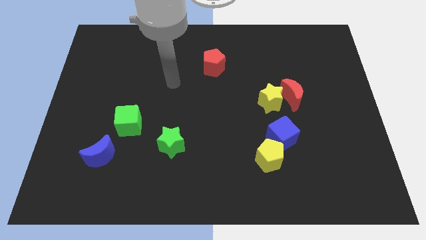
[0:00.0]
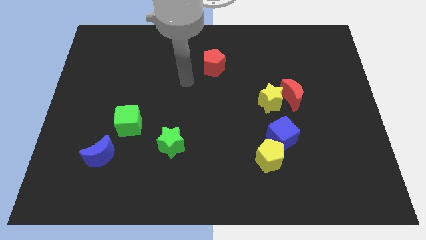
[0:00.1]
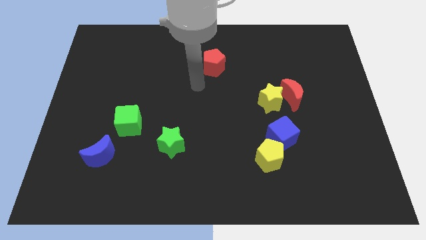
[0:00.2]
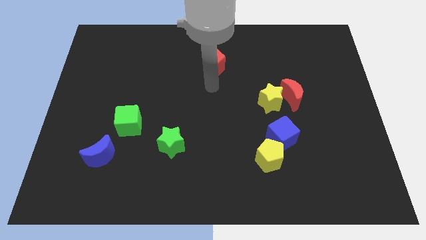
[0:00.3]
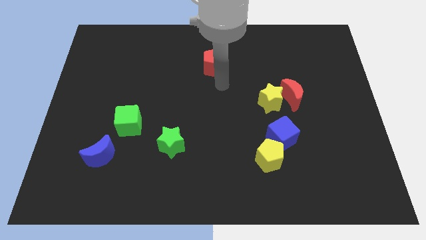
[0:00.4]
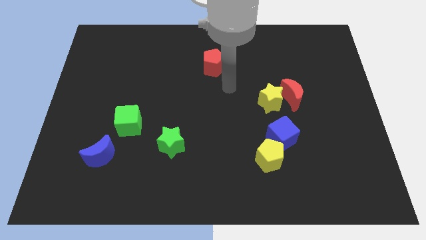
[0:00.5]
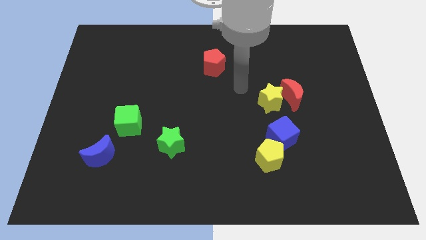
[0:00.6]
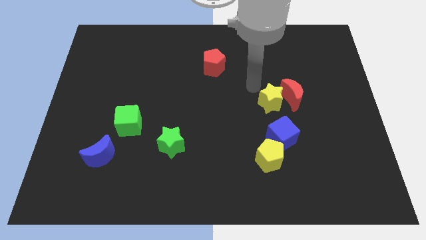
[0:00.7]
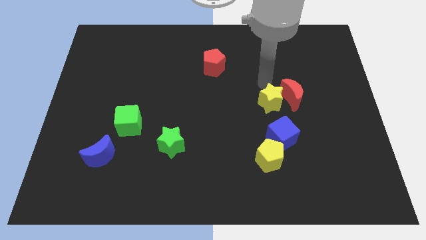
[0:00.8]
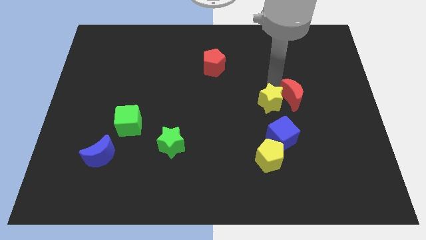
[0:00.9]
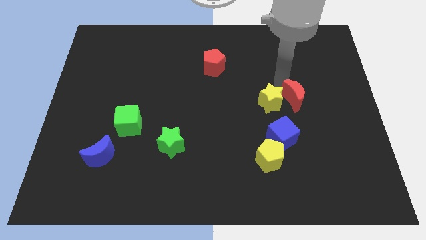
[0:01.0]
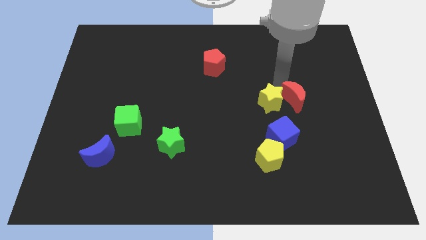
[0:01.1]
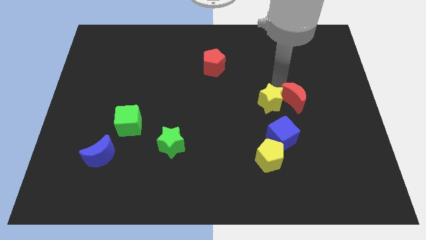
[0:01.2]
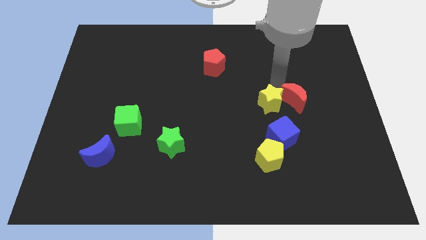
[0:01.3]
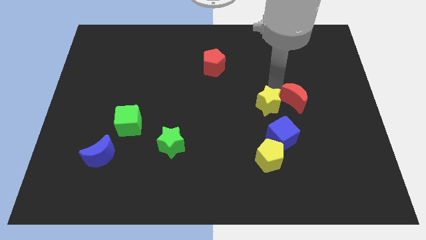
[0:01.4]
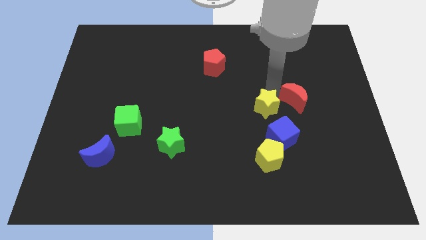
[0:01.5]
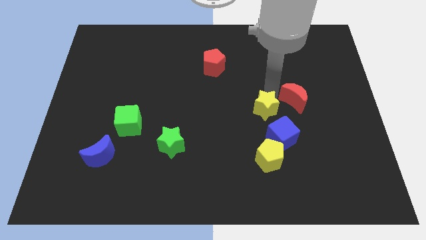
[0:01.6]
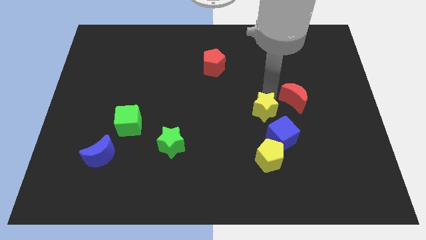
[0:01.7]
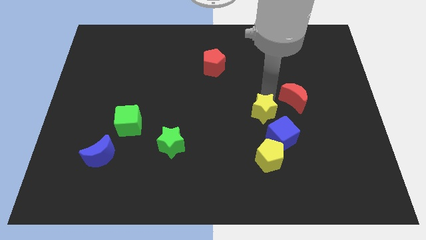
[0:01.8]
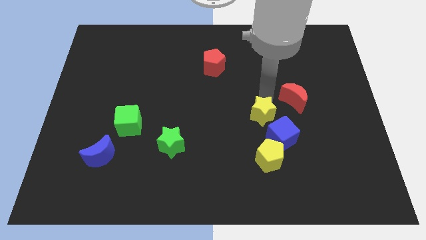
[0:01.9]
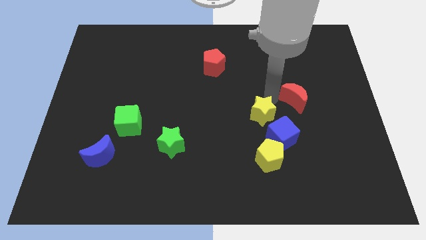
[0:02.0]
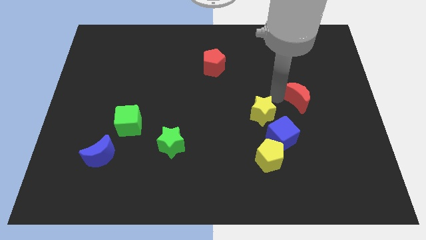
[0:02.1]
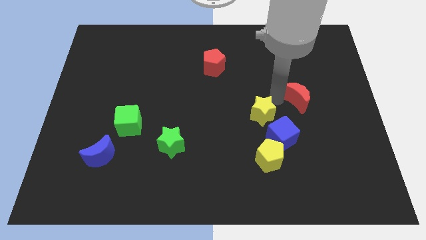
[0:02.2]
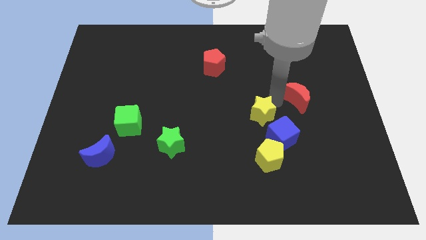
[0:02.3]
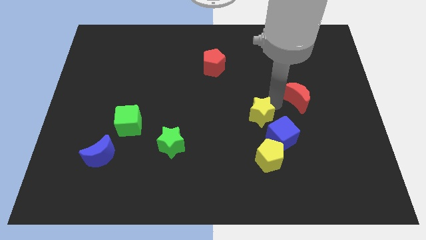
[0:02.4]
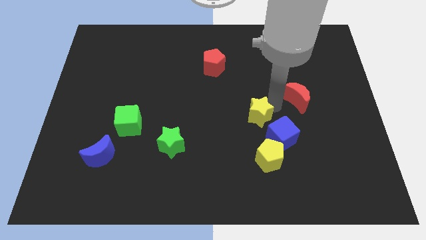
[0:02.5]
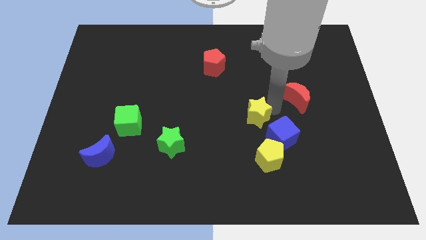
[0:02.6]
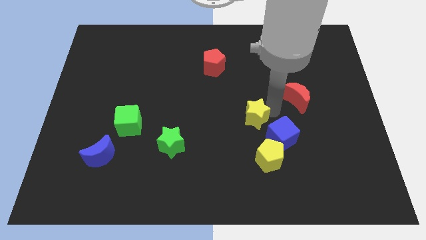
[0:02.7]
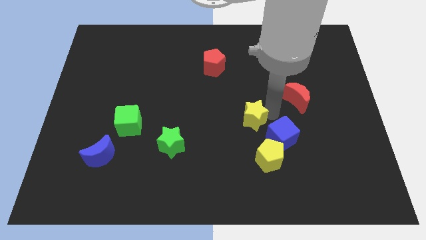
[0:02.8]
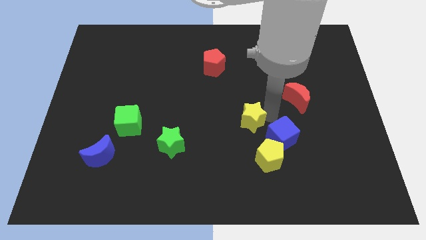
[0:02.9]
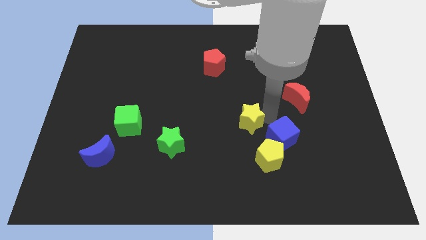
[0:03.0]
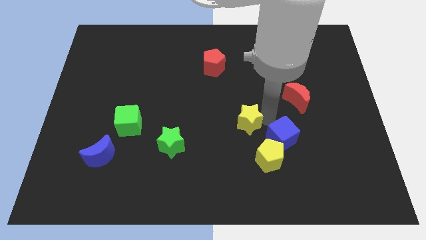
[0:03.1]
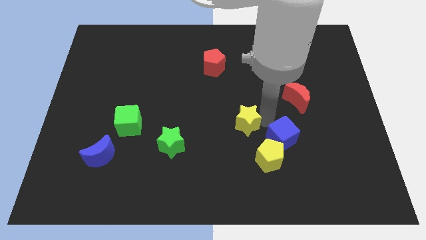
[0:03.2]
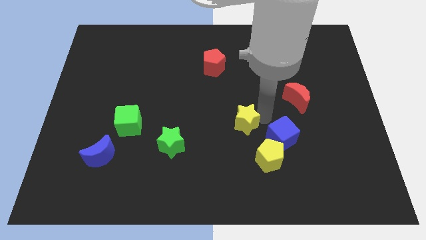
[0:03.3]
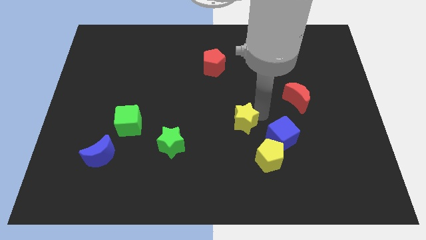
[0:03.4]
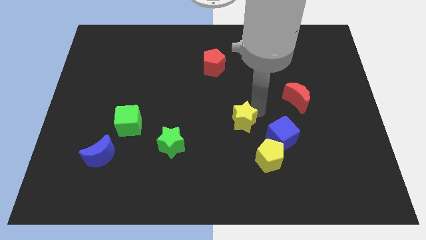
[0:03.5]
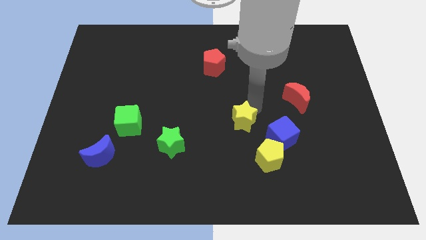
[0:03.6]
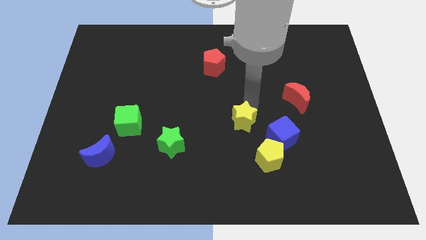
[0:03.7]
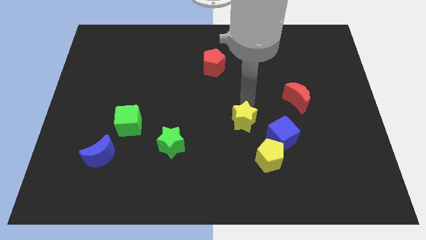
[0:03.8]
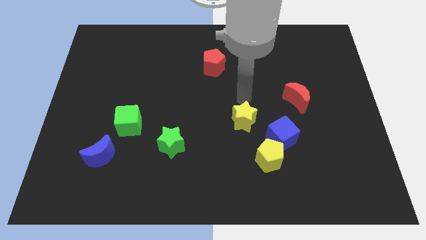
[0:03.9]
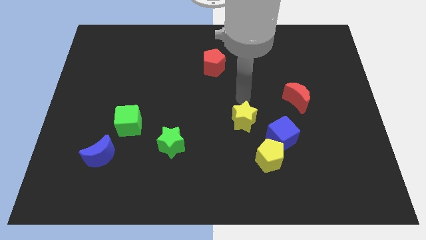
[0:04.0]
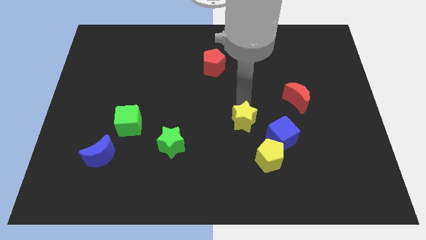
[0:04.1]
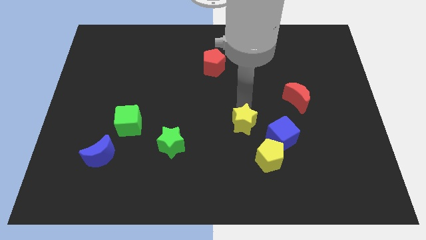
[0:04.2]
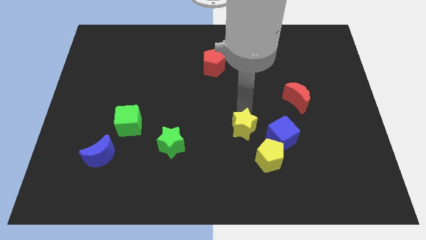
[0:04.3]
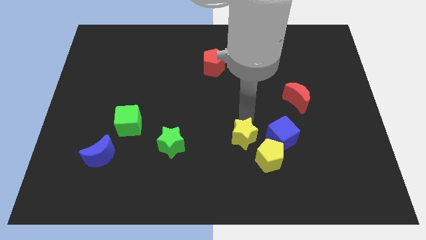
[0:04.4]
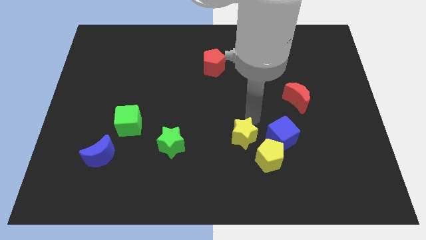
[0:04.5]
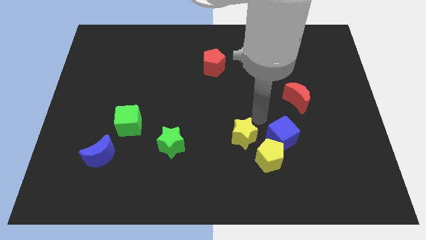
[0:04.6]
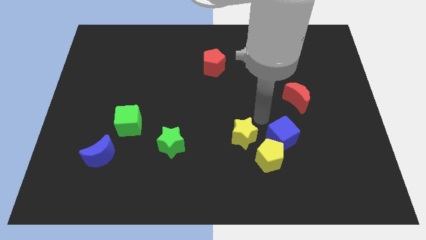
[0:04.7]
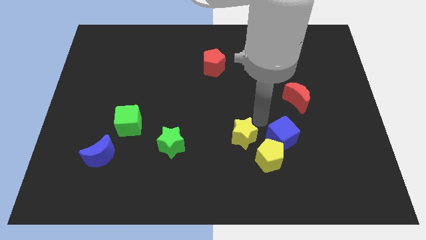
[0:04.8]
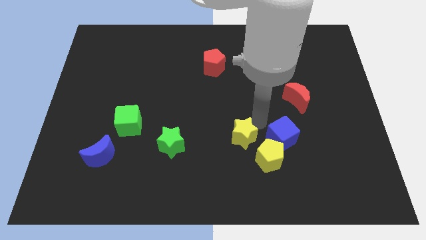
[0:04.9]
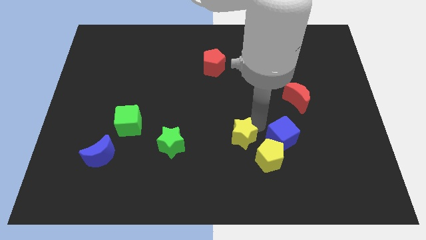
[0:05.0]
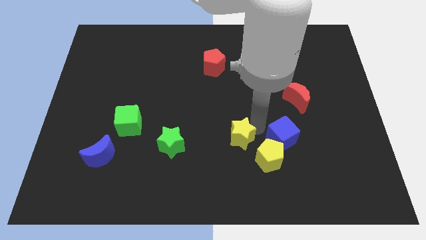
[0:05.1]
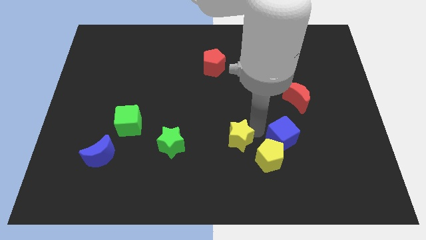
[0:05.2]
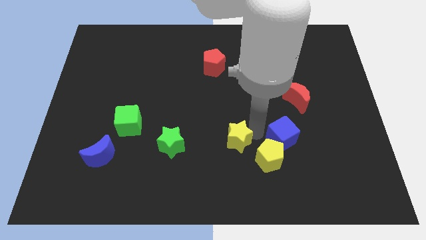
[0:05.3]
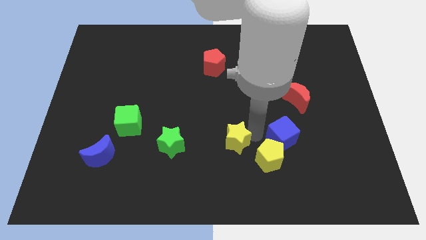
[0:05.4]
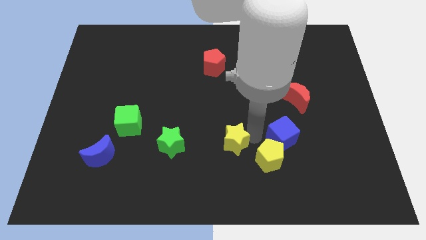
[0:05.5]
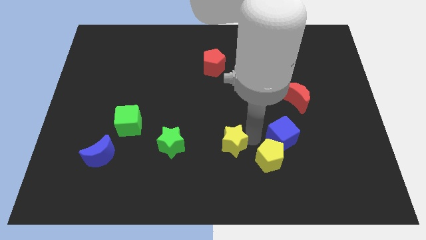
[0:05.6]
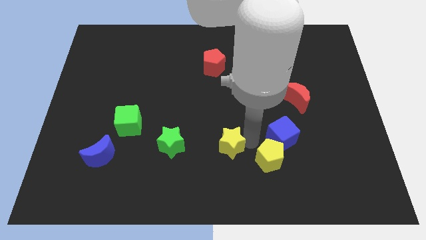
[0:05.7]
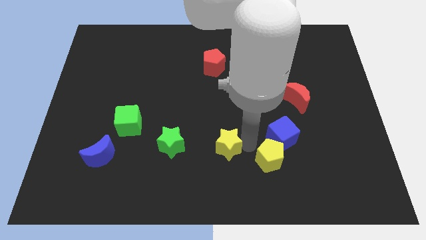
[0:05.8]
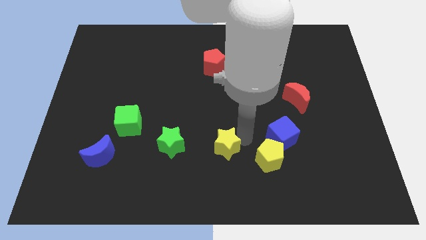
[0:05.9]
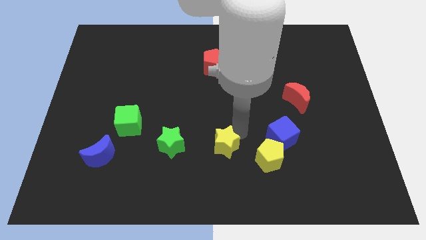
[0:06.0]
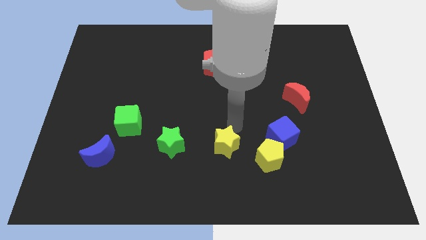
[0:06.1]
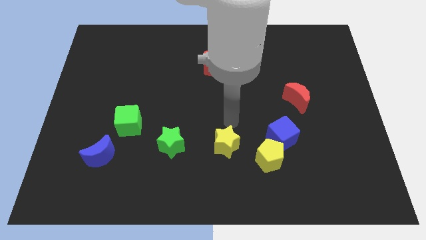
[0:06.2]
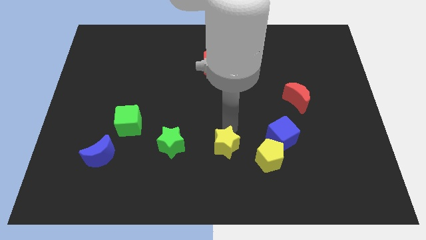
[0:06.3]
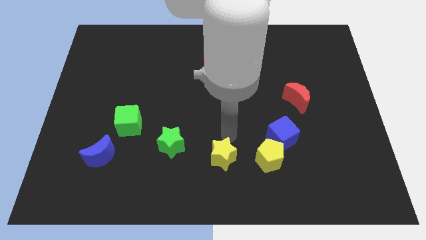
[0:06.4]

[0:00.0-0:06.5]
push the yellow star to the bottom
